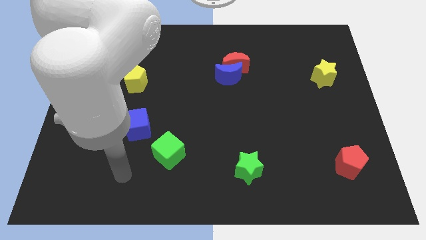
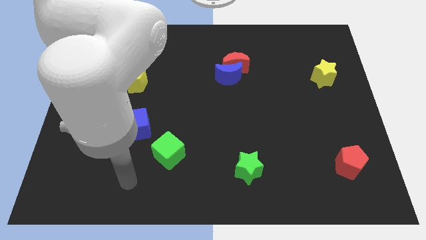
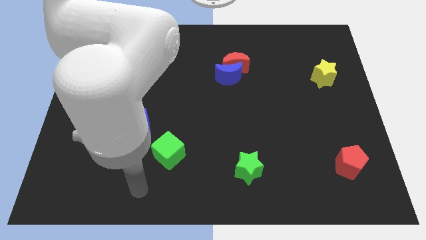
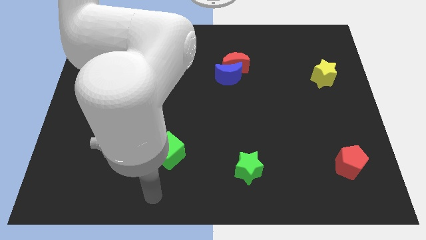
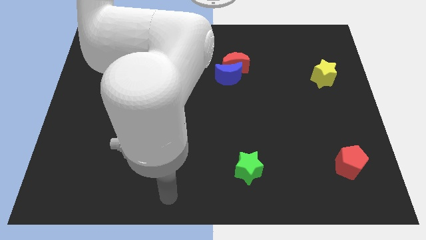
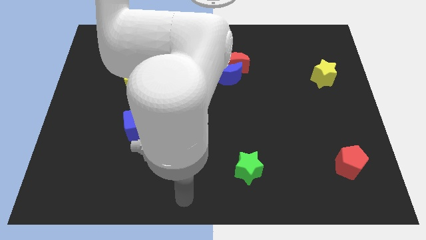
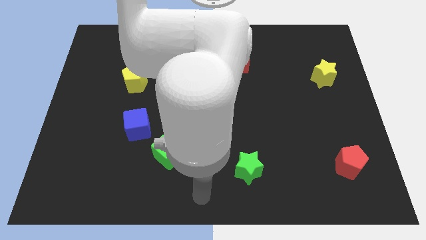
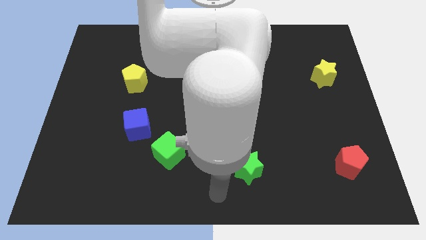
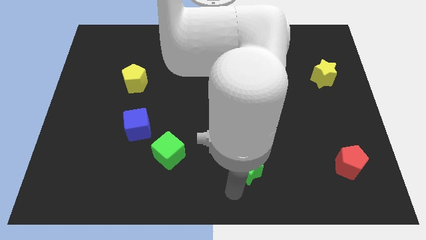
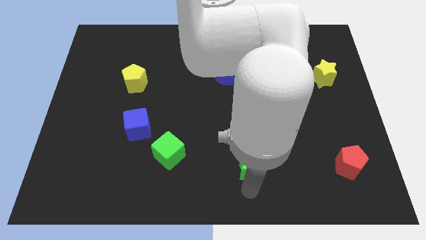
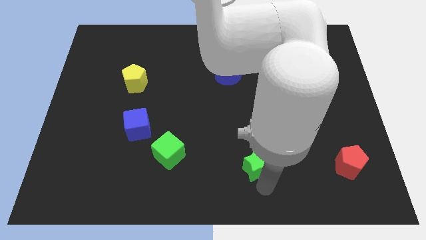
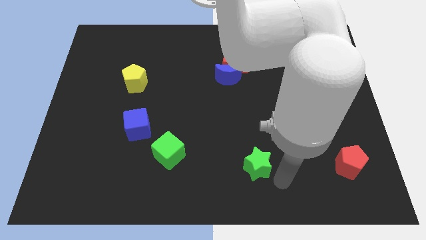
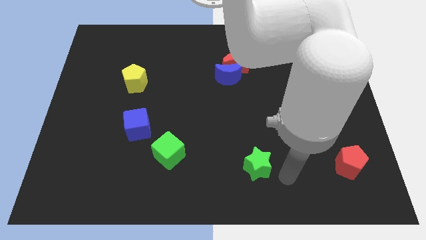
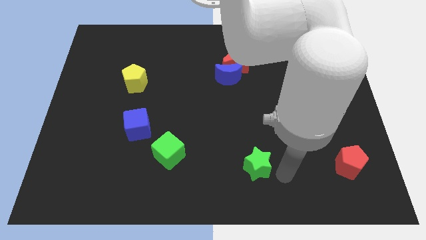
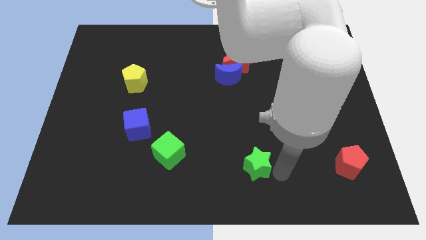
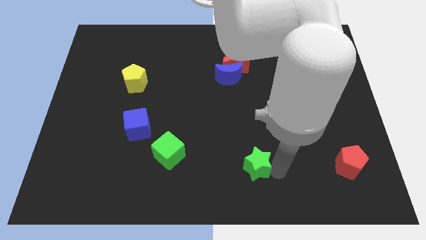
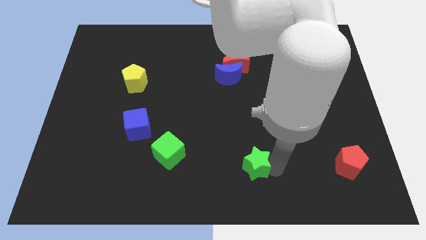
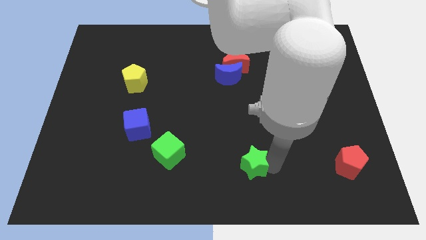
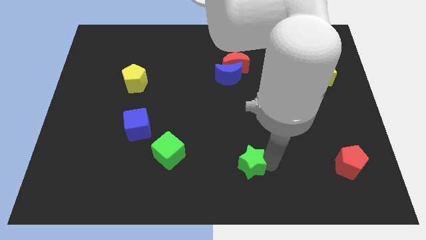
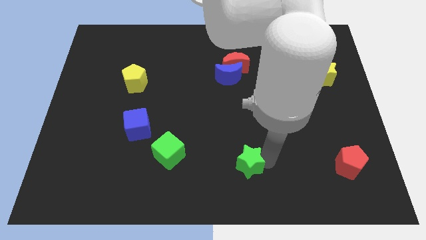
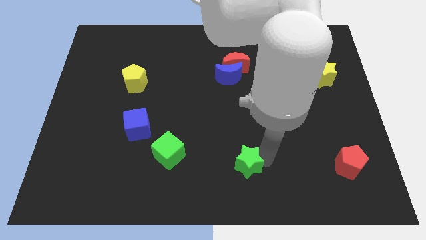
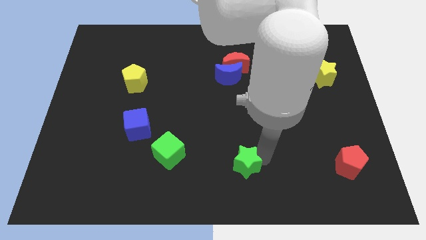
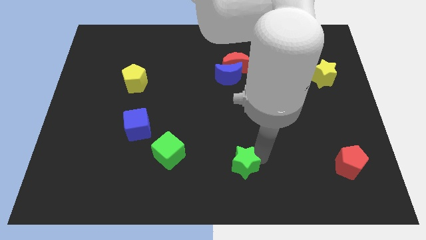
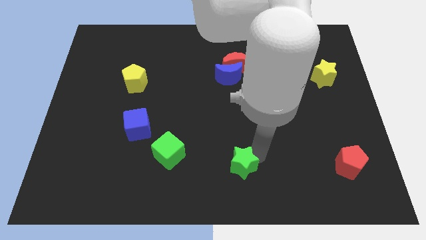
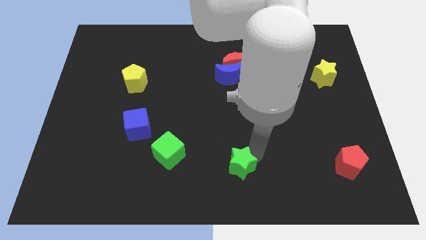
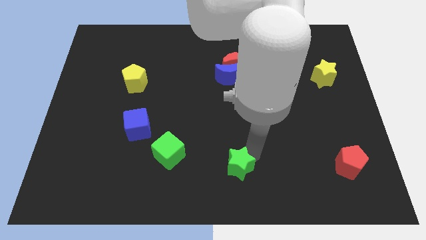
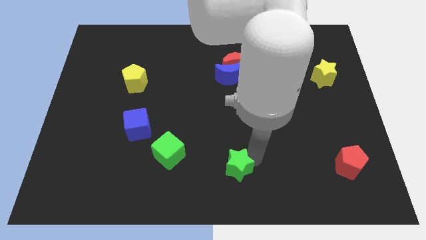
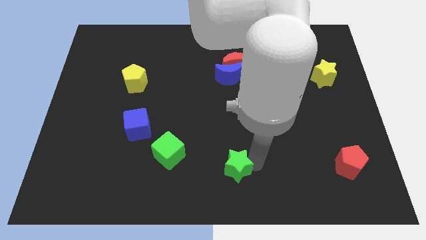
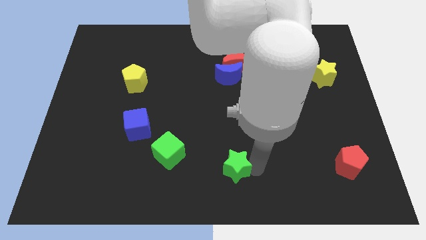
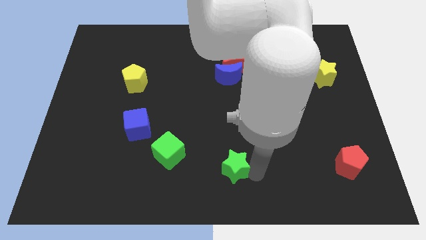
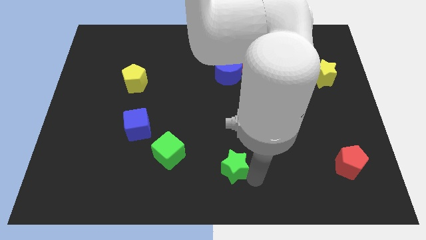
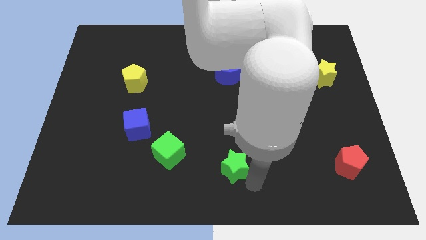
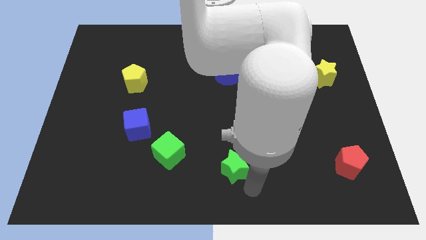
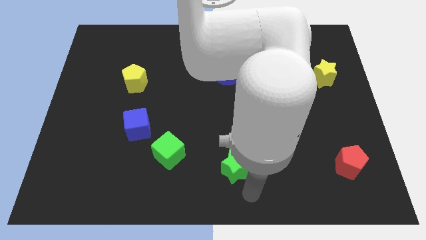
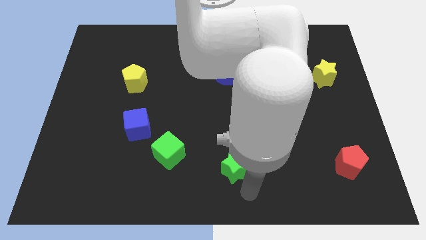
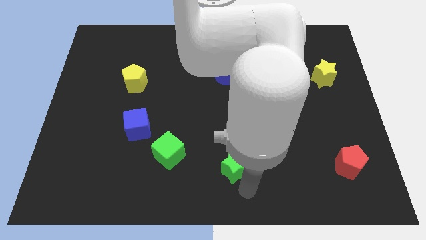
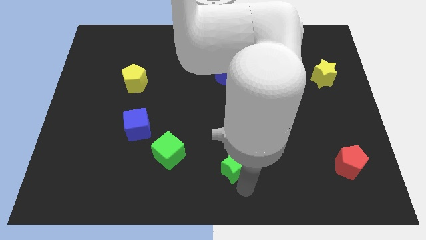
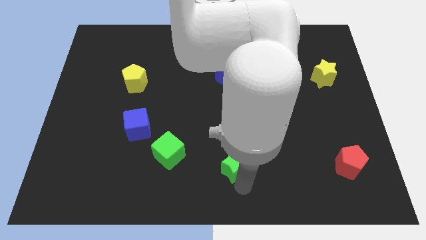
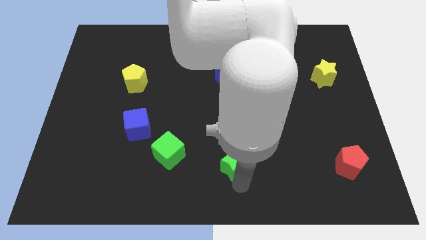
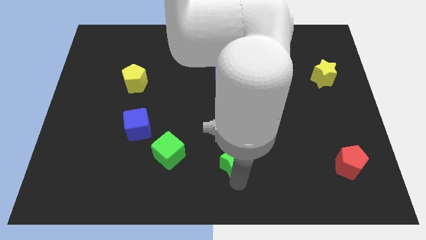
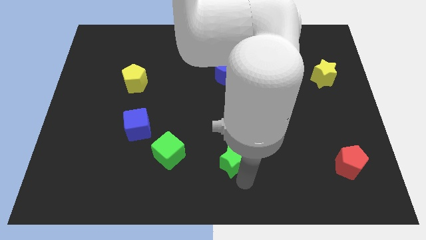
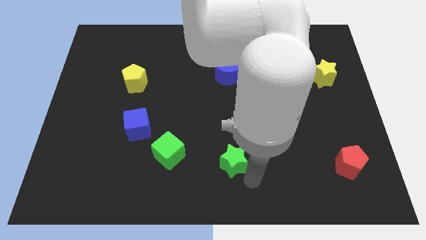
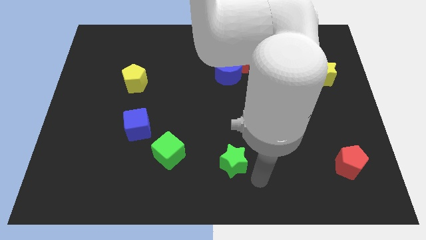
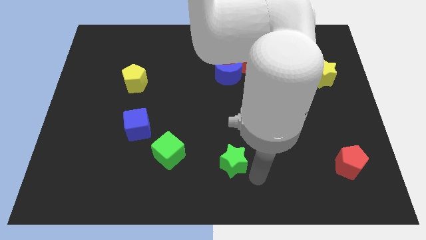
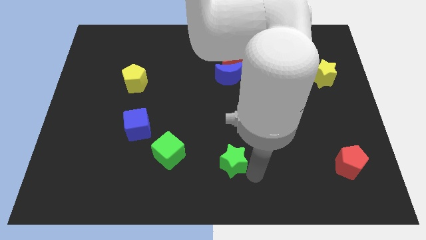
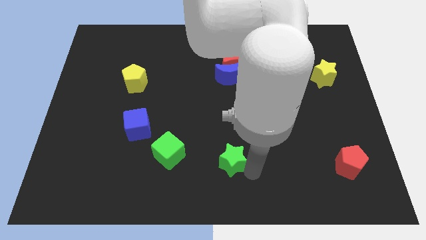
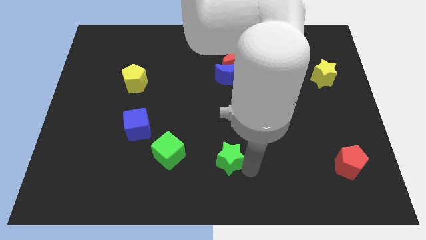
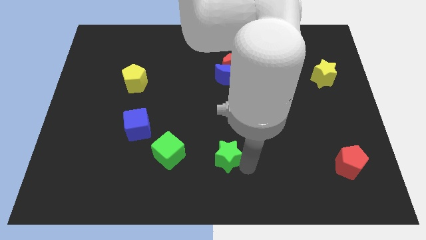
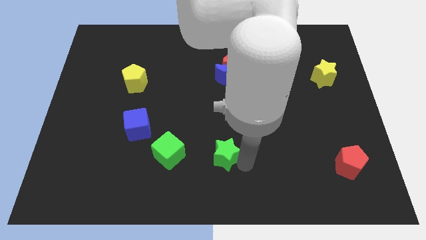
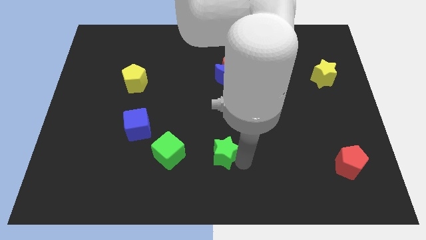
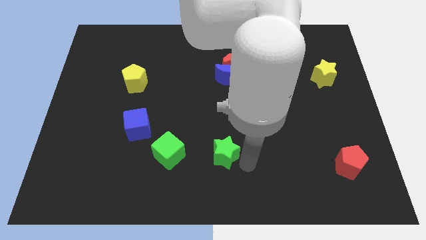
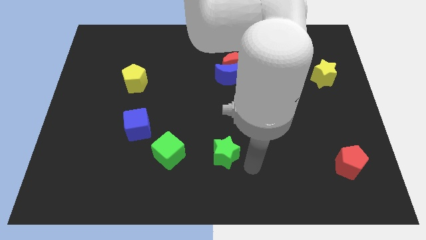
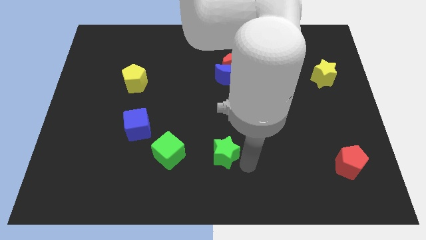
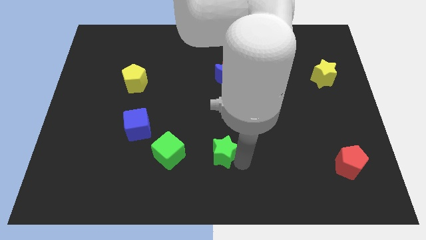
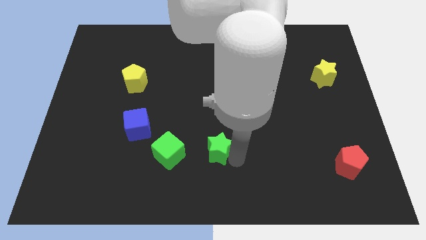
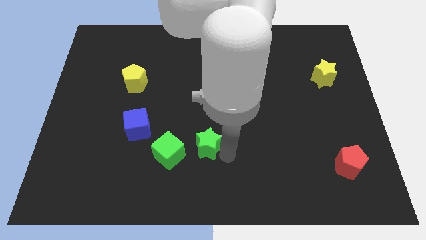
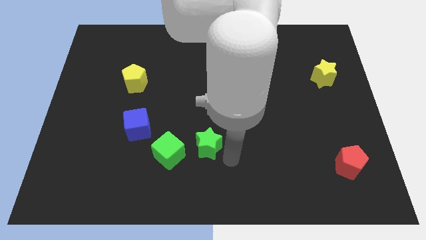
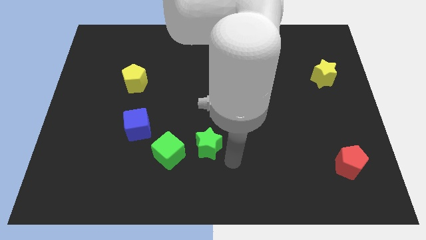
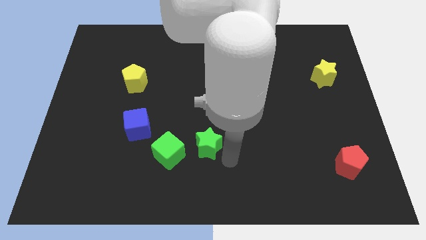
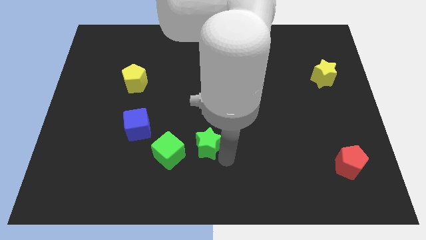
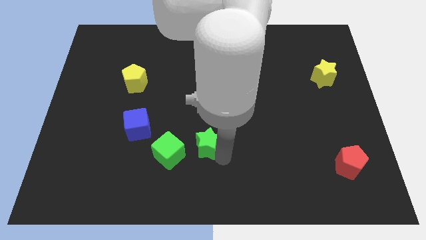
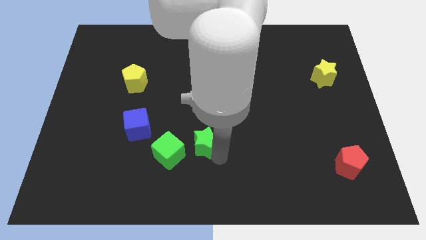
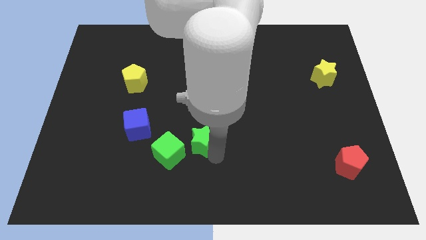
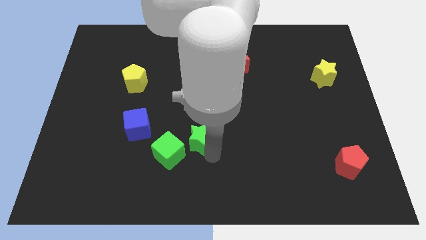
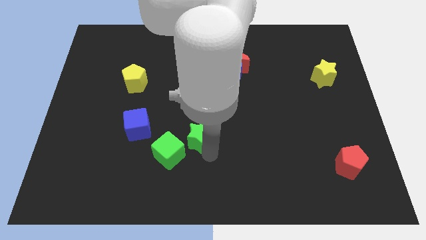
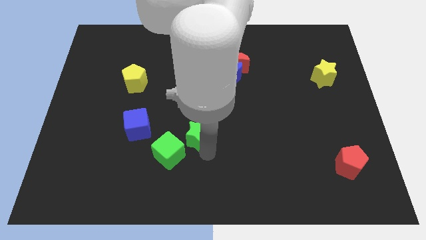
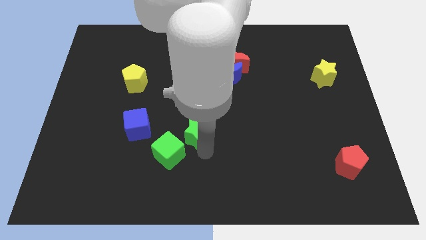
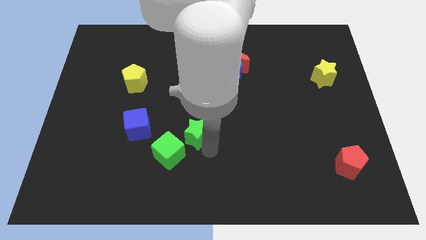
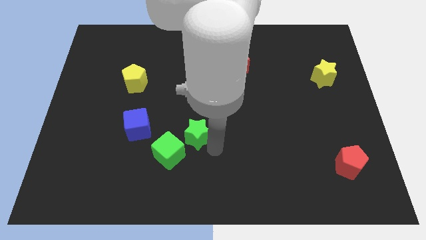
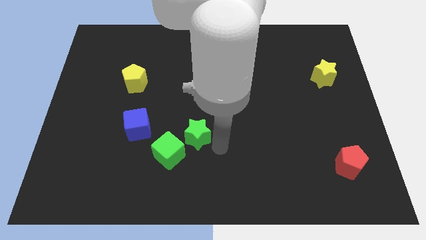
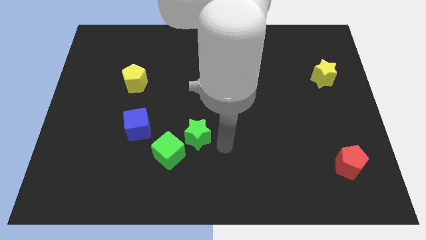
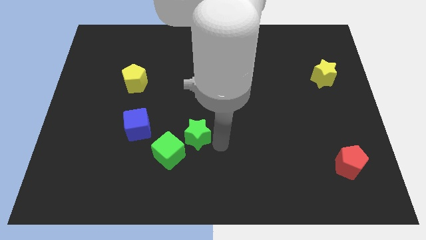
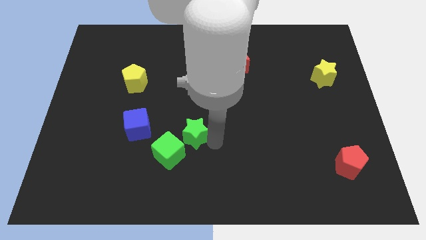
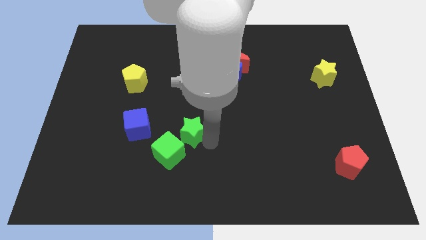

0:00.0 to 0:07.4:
push the green star to the top of the green cube
